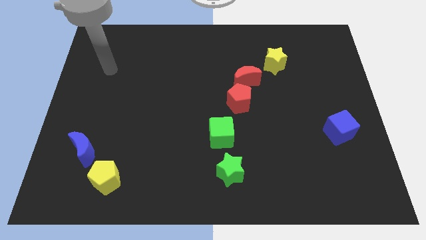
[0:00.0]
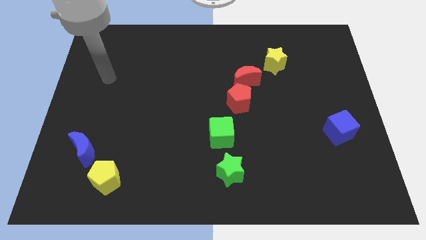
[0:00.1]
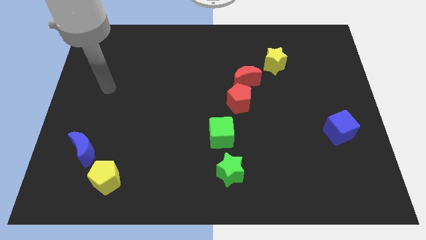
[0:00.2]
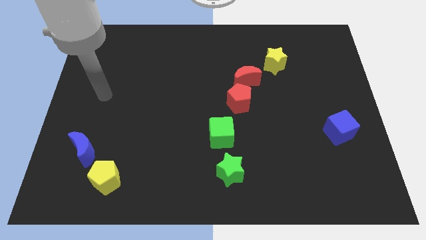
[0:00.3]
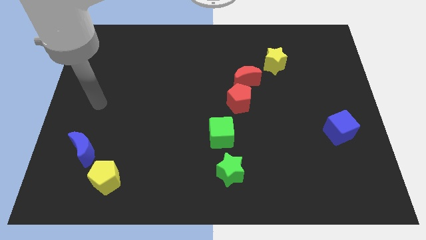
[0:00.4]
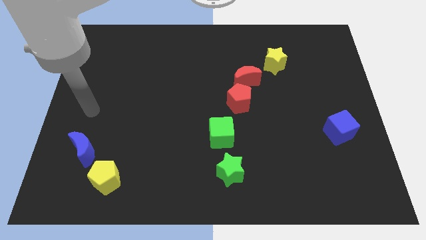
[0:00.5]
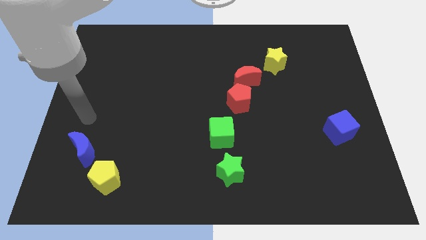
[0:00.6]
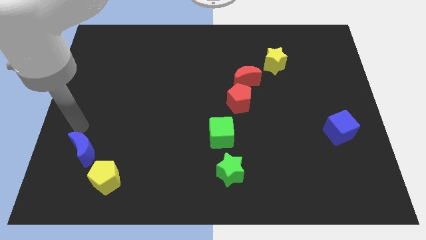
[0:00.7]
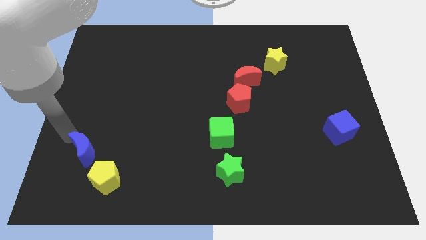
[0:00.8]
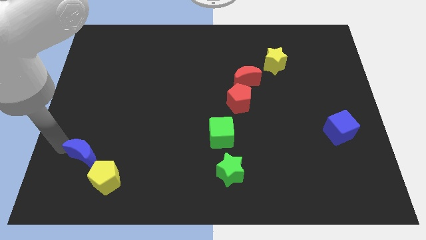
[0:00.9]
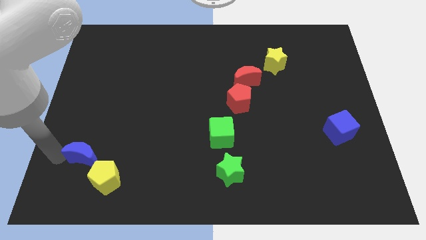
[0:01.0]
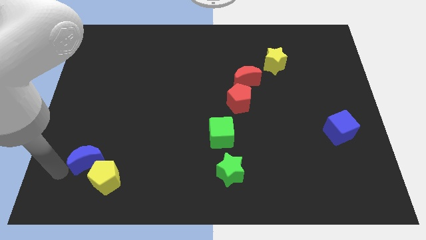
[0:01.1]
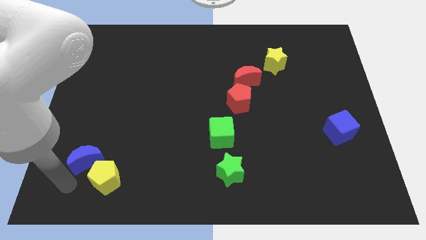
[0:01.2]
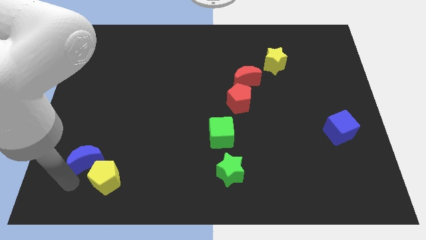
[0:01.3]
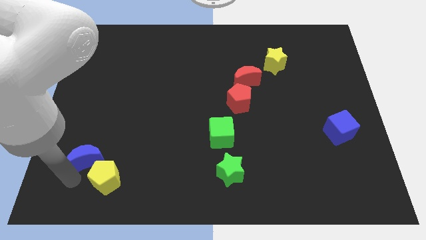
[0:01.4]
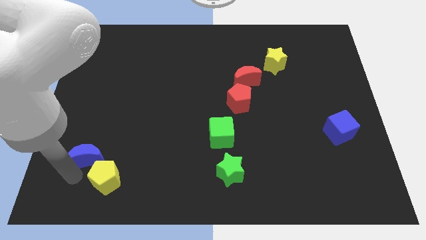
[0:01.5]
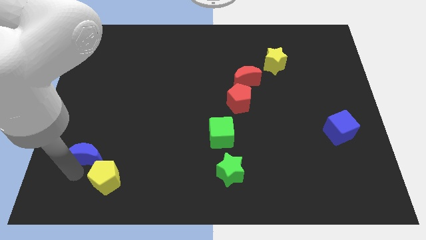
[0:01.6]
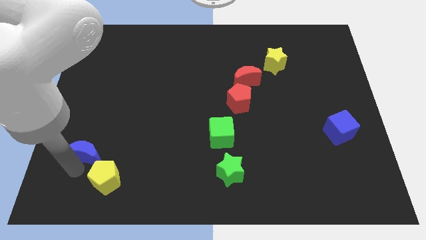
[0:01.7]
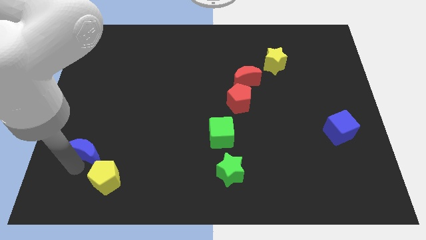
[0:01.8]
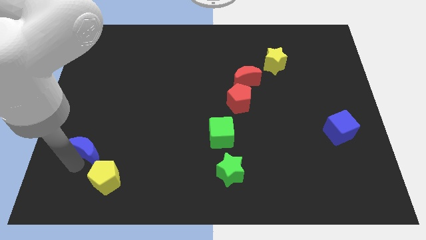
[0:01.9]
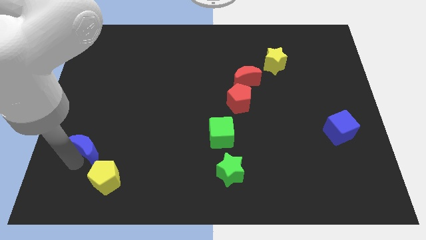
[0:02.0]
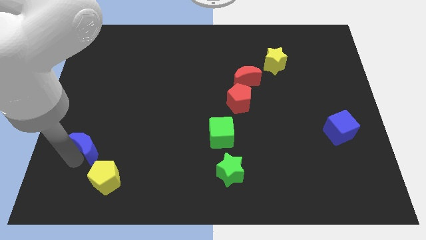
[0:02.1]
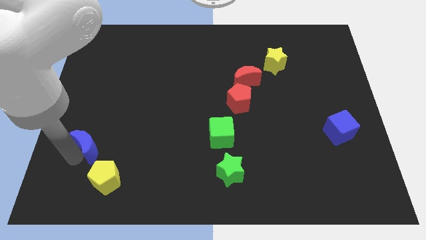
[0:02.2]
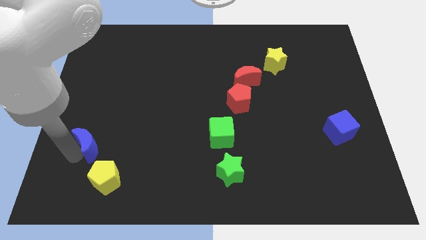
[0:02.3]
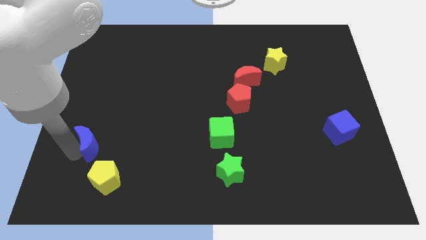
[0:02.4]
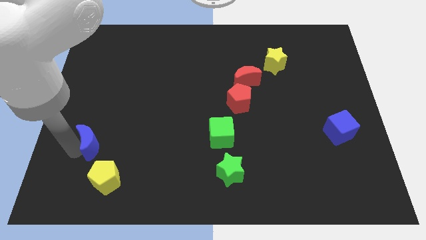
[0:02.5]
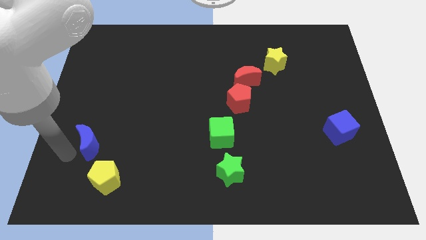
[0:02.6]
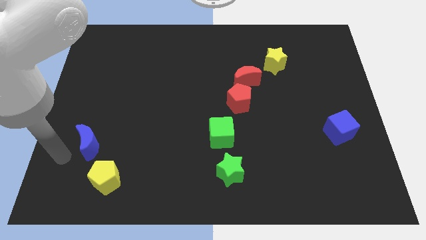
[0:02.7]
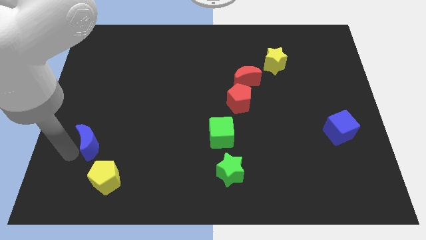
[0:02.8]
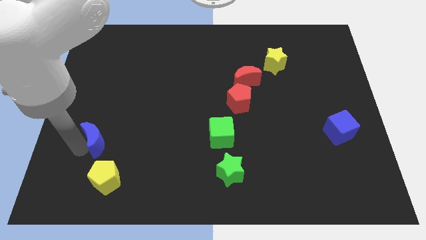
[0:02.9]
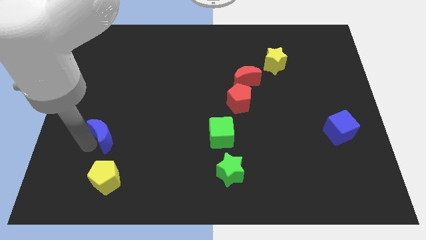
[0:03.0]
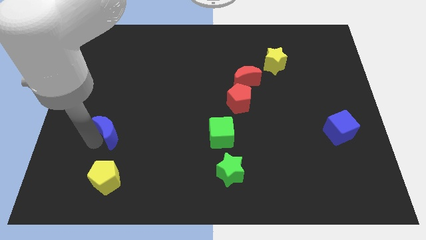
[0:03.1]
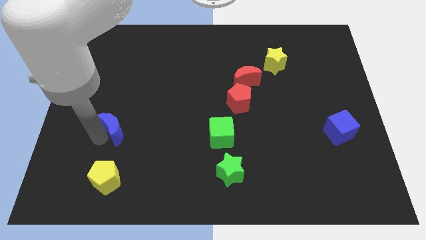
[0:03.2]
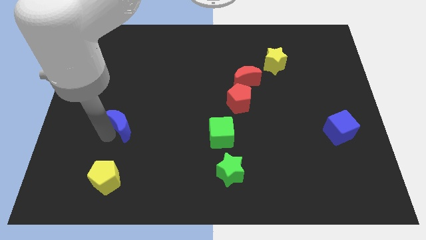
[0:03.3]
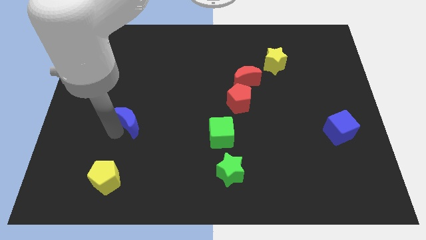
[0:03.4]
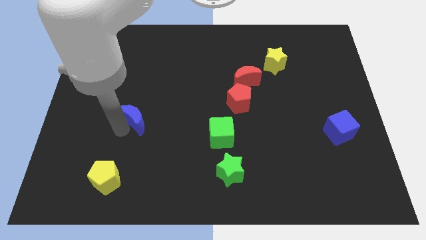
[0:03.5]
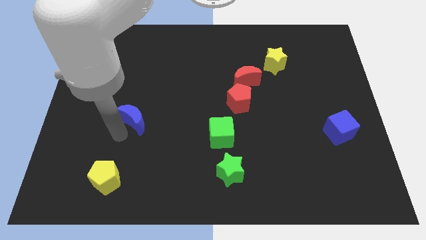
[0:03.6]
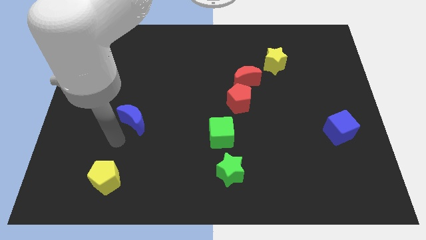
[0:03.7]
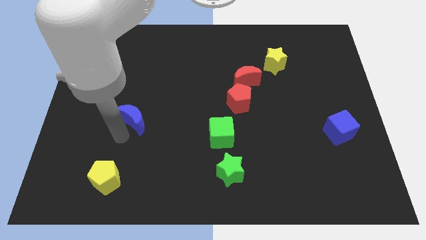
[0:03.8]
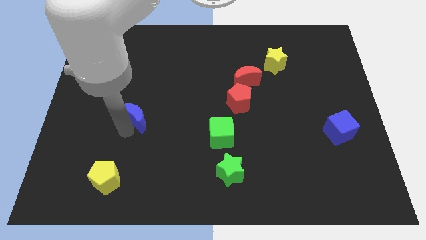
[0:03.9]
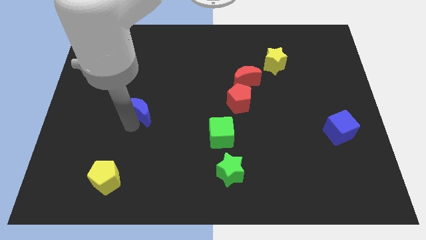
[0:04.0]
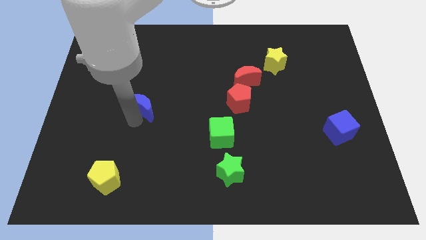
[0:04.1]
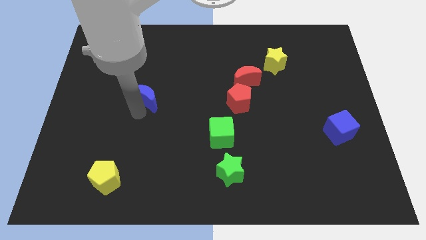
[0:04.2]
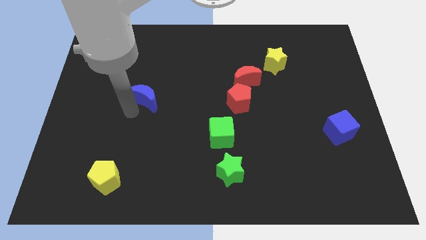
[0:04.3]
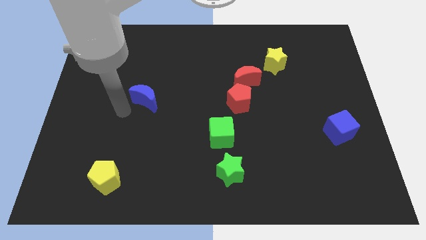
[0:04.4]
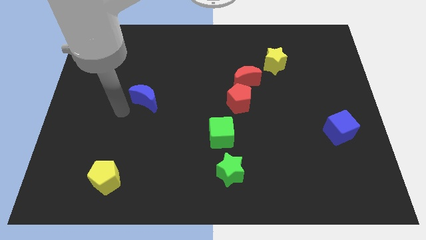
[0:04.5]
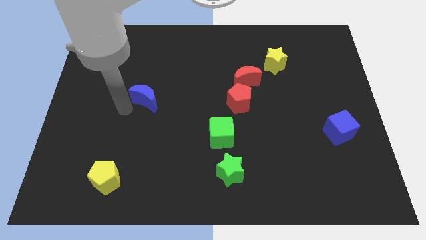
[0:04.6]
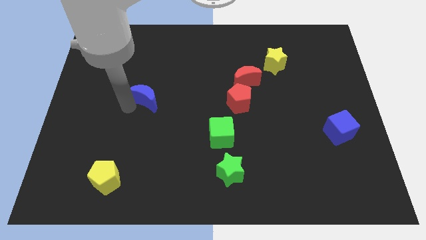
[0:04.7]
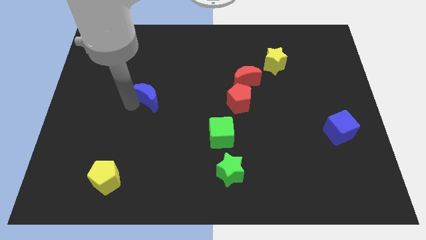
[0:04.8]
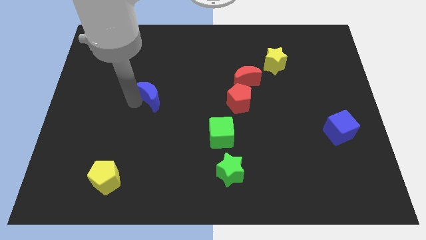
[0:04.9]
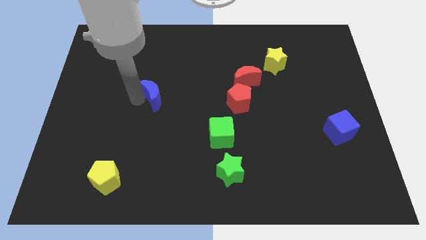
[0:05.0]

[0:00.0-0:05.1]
push the blue moon upwards and then right

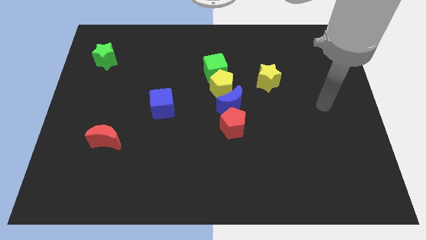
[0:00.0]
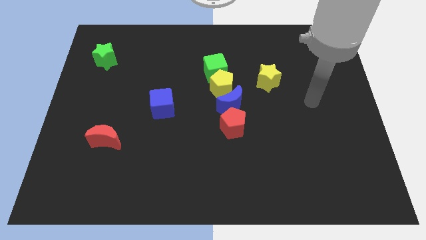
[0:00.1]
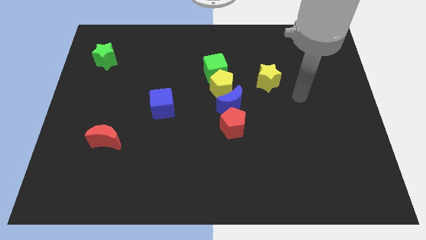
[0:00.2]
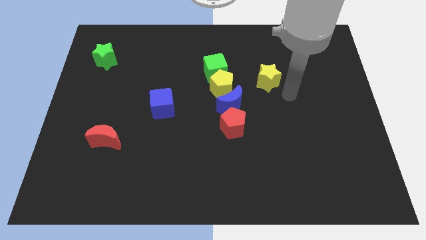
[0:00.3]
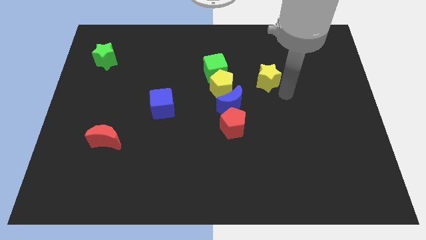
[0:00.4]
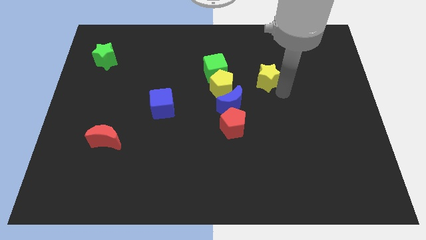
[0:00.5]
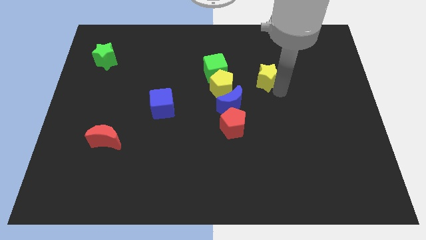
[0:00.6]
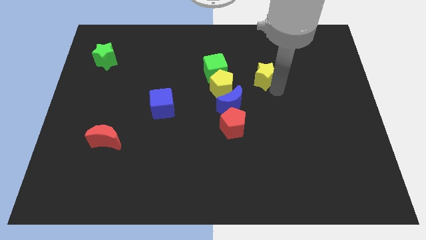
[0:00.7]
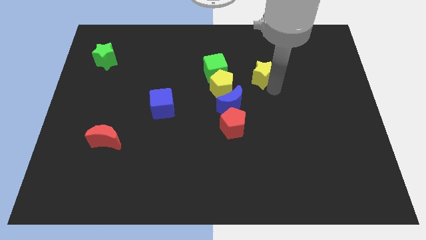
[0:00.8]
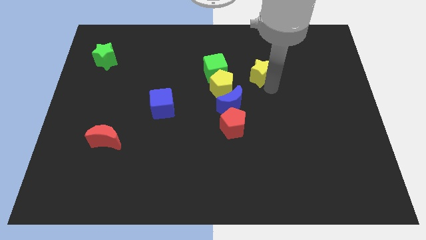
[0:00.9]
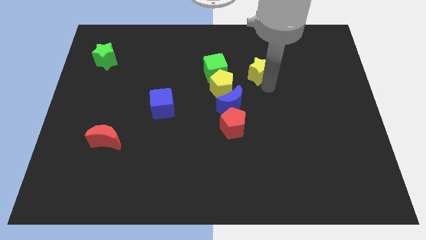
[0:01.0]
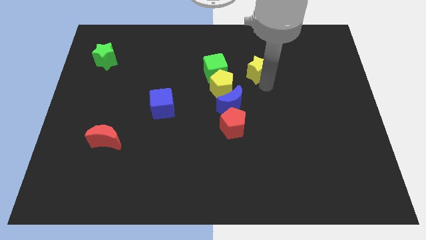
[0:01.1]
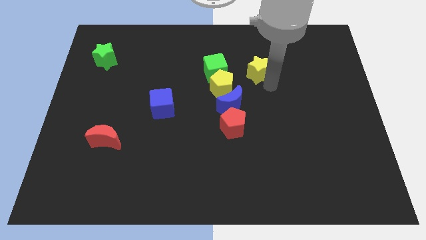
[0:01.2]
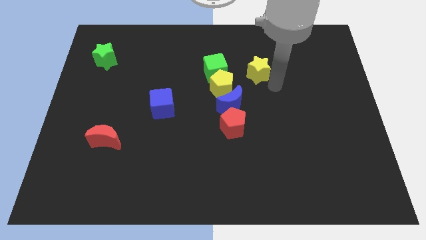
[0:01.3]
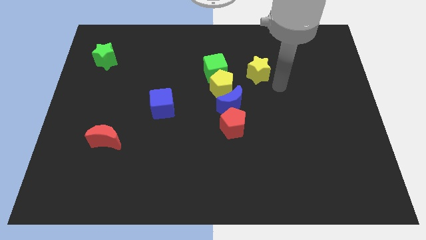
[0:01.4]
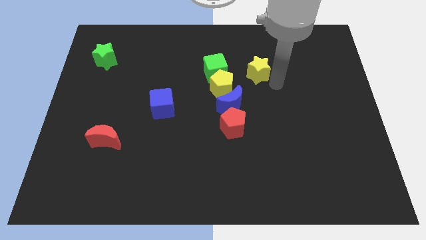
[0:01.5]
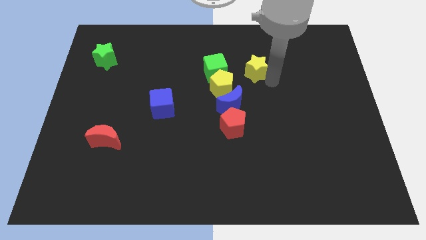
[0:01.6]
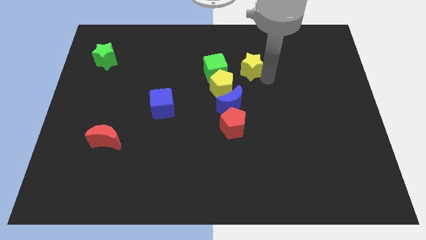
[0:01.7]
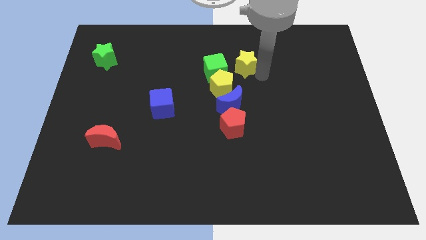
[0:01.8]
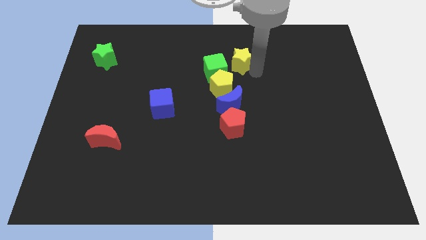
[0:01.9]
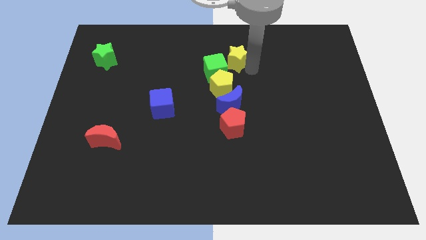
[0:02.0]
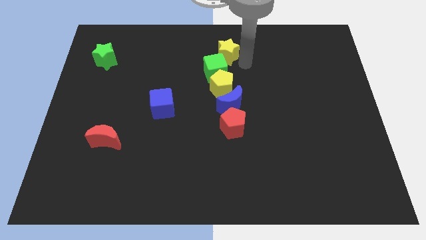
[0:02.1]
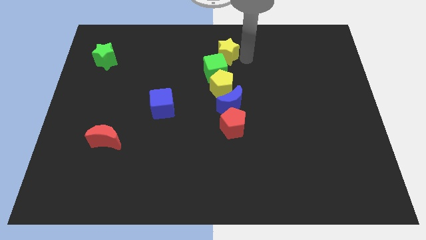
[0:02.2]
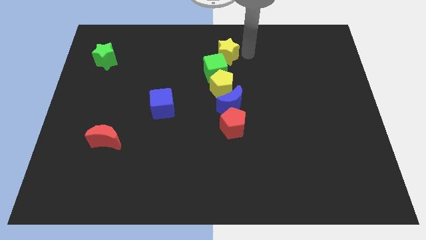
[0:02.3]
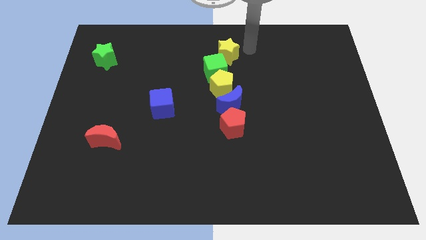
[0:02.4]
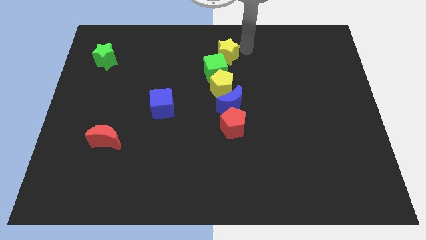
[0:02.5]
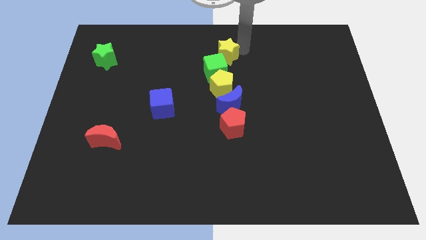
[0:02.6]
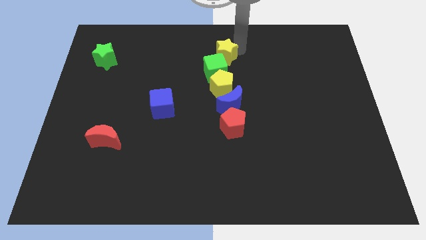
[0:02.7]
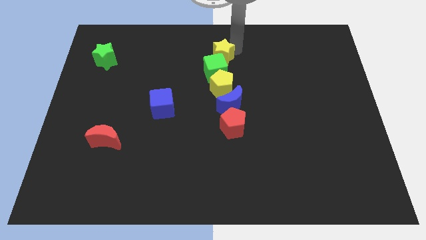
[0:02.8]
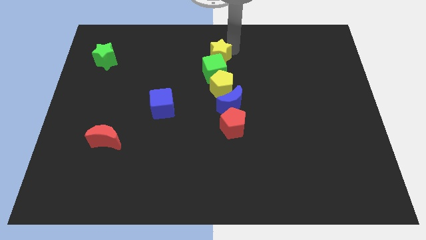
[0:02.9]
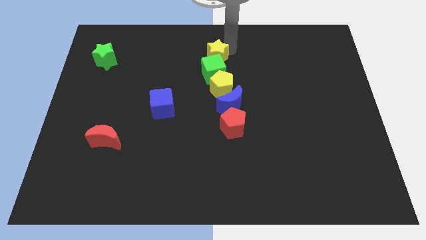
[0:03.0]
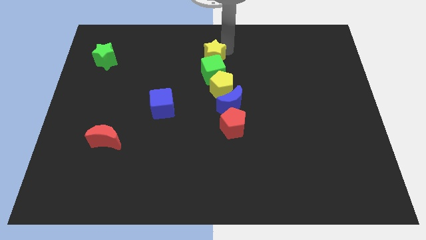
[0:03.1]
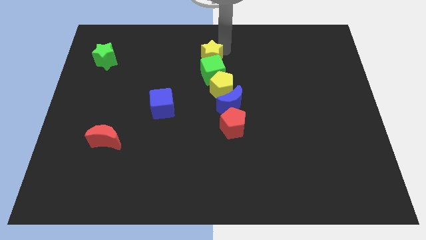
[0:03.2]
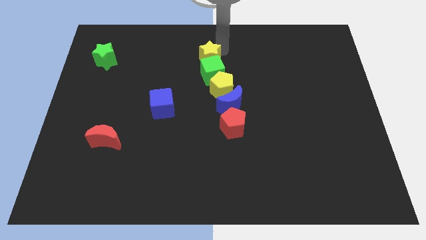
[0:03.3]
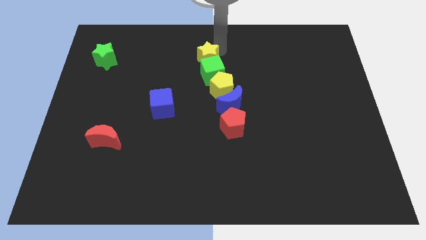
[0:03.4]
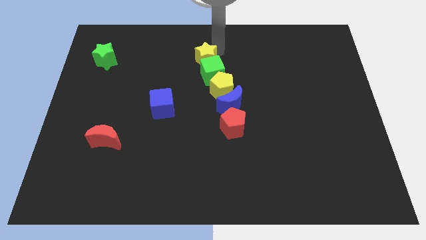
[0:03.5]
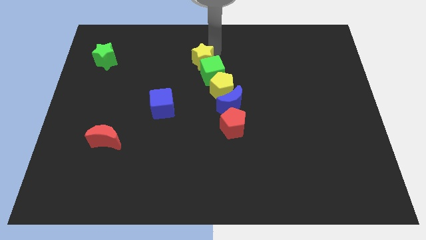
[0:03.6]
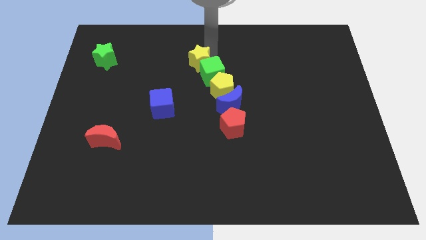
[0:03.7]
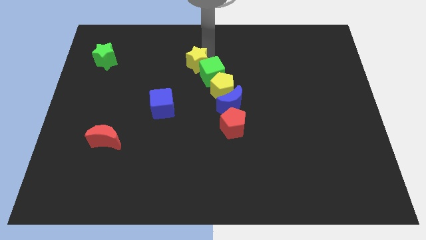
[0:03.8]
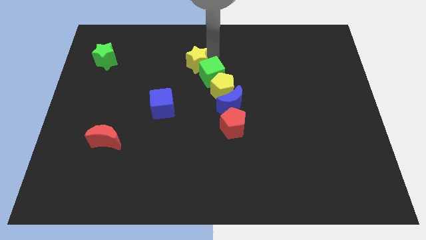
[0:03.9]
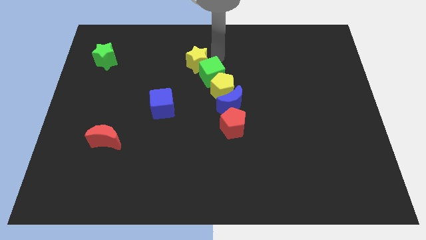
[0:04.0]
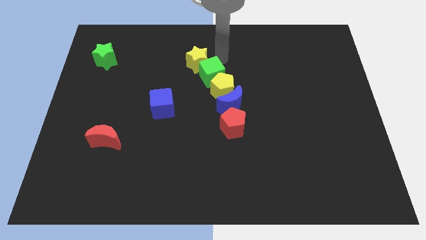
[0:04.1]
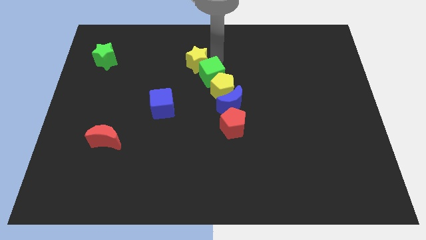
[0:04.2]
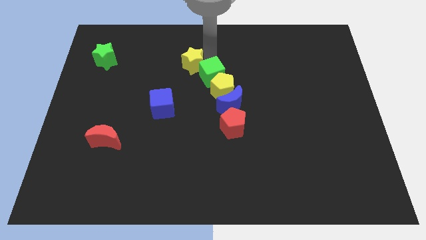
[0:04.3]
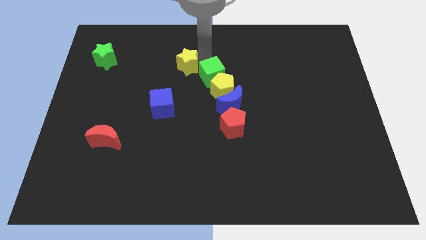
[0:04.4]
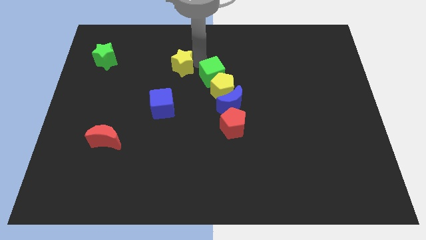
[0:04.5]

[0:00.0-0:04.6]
push the yellow star left
